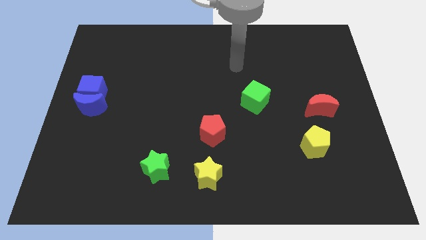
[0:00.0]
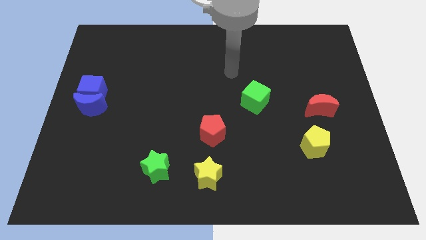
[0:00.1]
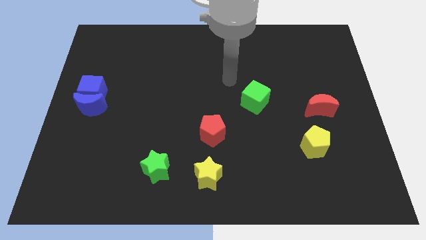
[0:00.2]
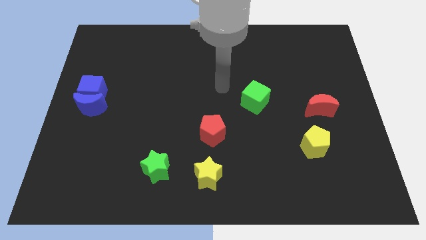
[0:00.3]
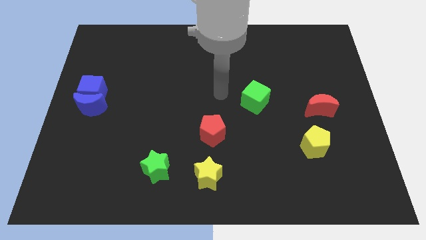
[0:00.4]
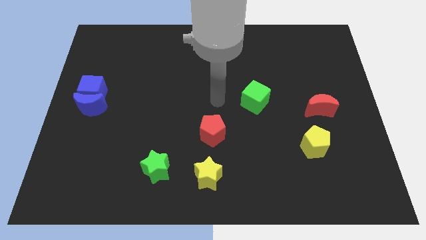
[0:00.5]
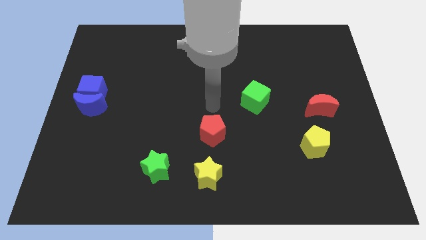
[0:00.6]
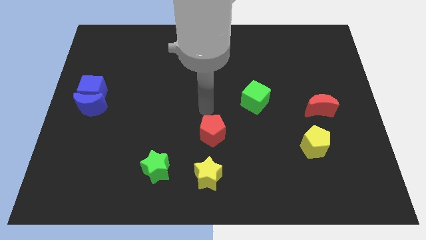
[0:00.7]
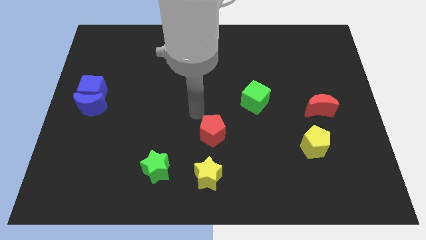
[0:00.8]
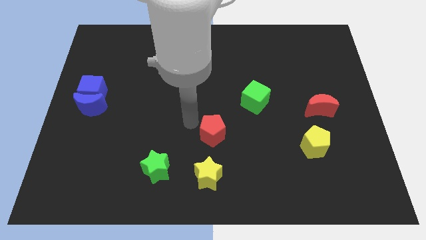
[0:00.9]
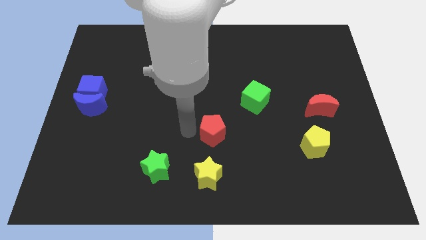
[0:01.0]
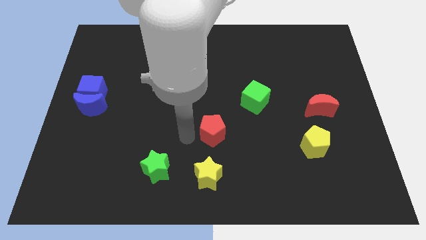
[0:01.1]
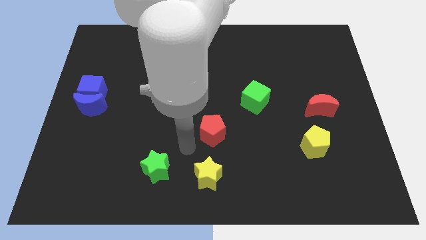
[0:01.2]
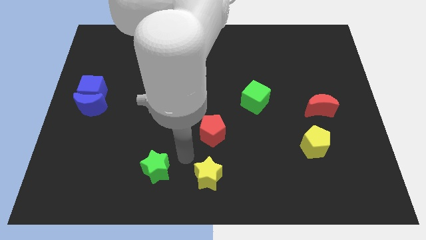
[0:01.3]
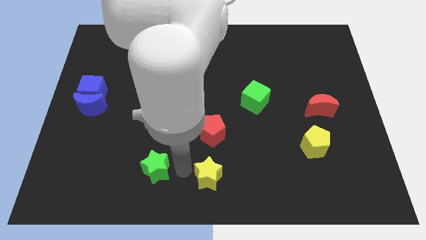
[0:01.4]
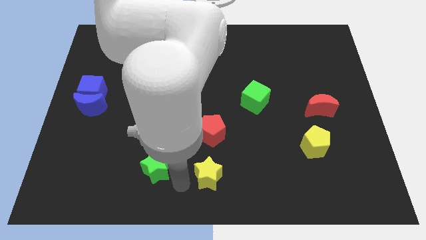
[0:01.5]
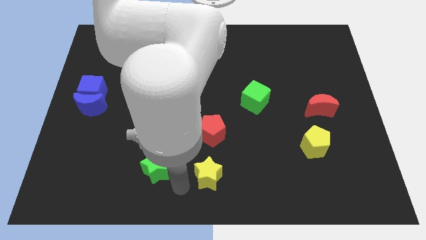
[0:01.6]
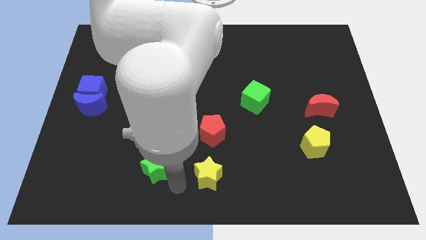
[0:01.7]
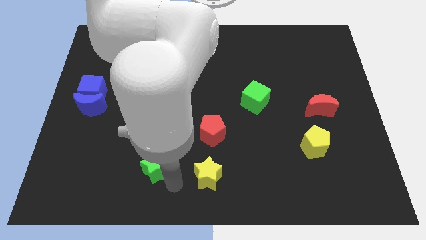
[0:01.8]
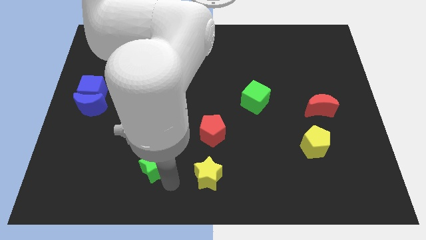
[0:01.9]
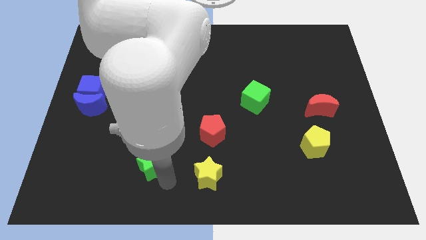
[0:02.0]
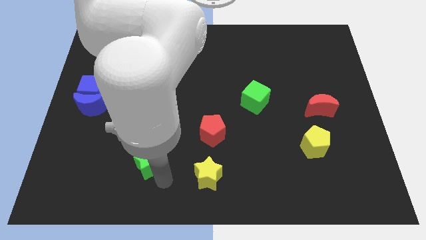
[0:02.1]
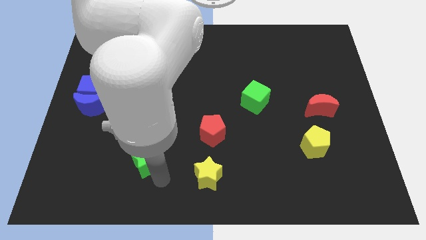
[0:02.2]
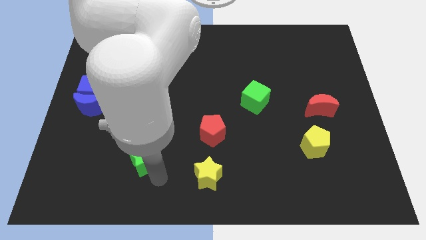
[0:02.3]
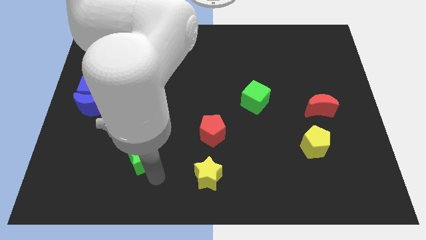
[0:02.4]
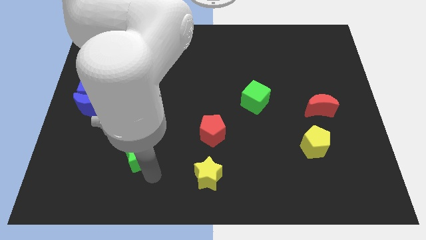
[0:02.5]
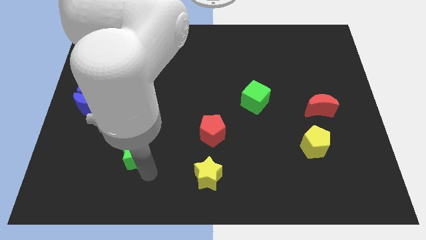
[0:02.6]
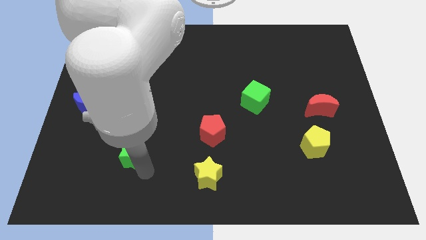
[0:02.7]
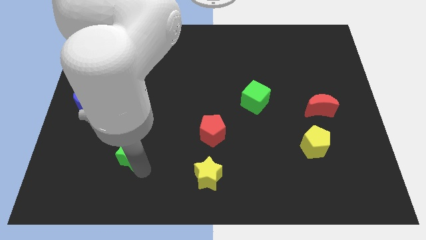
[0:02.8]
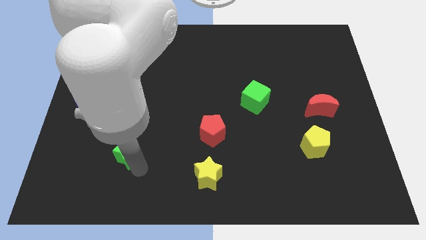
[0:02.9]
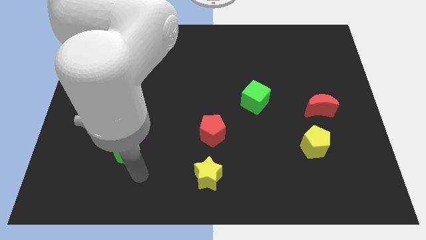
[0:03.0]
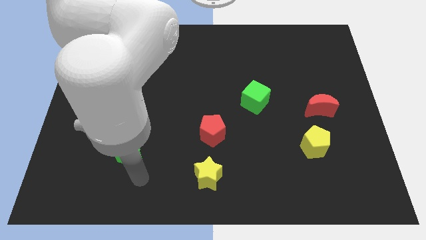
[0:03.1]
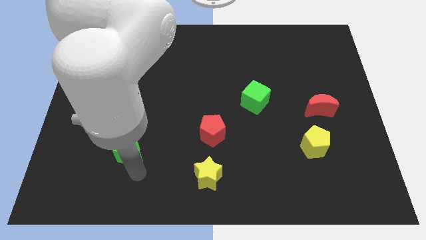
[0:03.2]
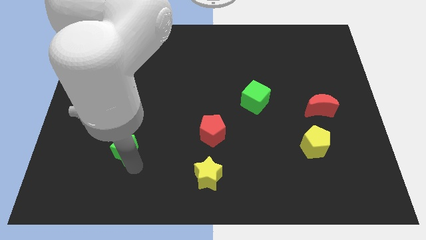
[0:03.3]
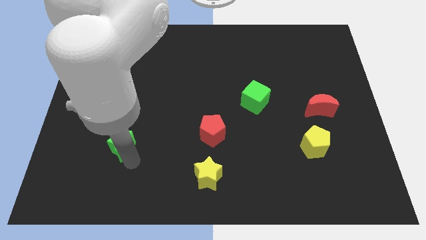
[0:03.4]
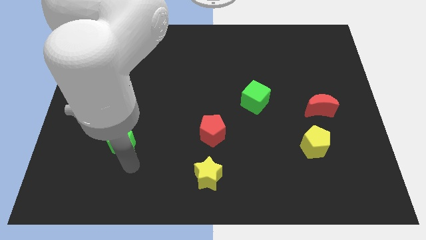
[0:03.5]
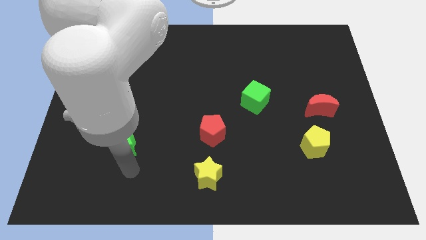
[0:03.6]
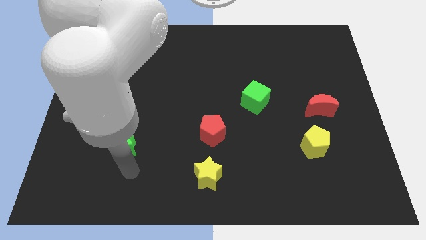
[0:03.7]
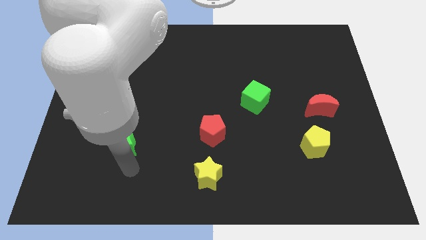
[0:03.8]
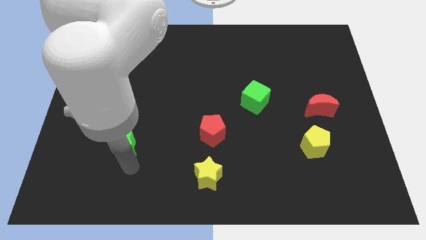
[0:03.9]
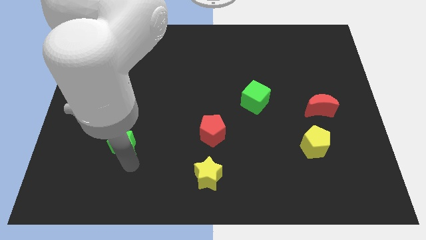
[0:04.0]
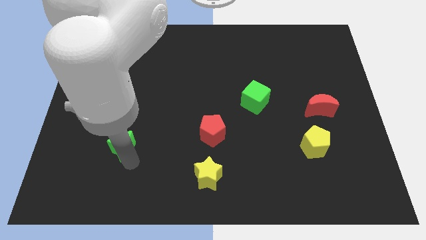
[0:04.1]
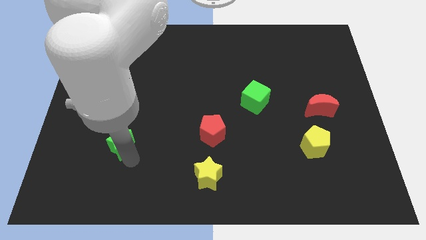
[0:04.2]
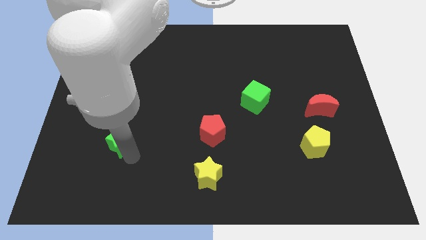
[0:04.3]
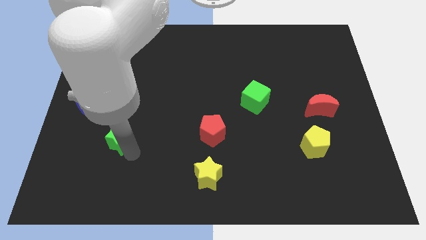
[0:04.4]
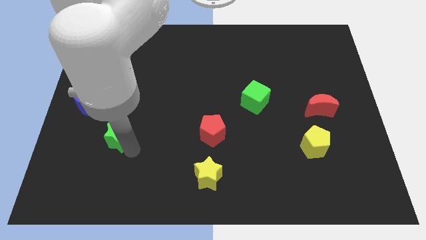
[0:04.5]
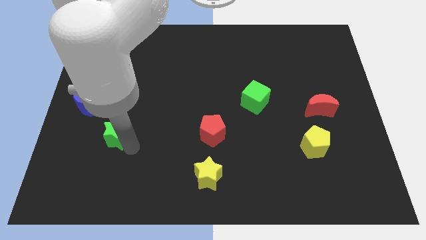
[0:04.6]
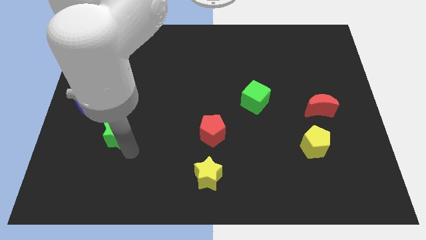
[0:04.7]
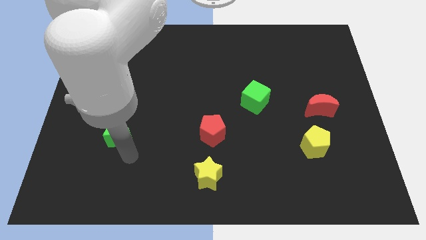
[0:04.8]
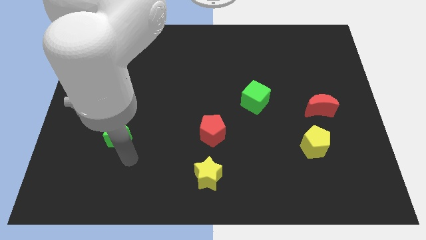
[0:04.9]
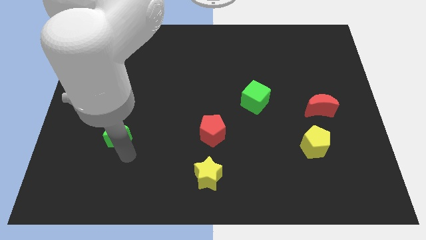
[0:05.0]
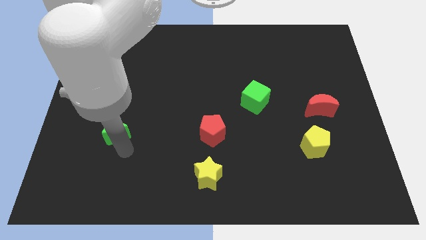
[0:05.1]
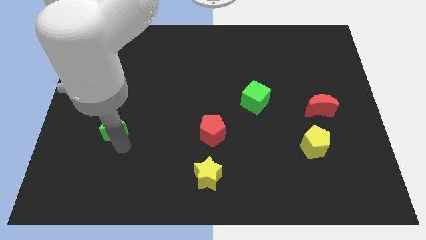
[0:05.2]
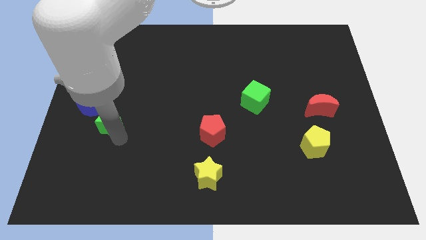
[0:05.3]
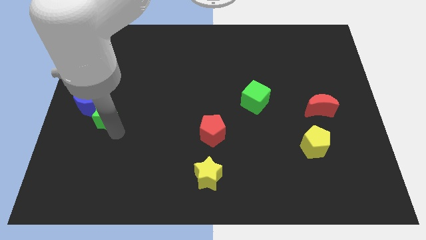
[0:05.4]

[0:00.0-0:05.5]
put the green star towards the blue moon

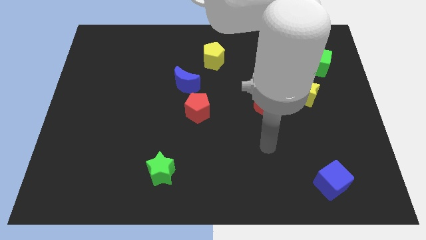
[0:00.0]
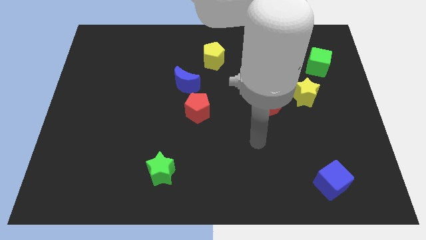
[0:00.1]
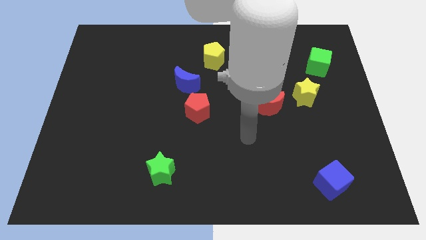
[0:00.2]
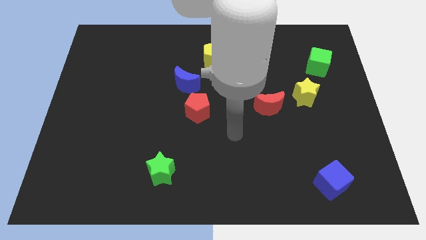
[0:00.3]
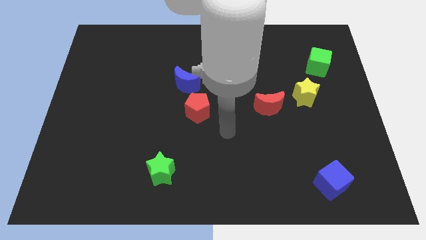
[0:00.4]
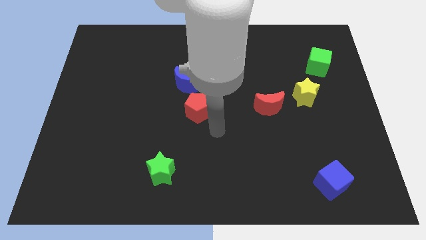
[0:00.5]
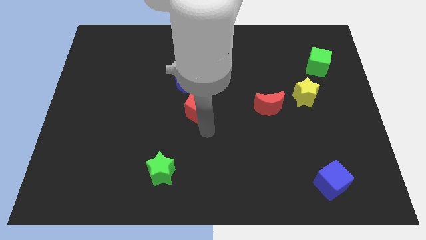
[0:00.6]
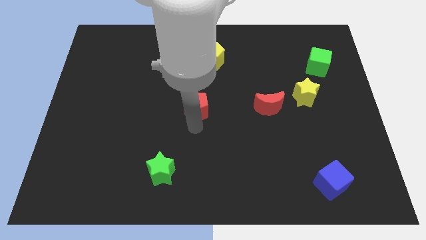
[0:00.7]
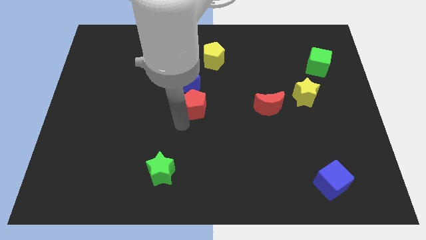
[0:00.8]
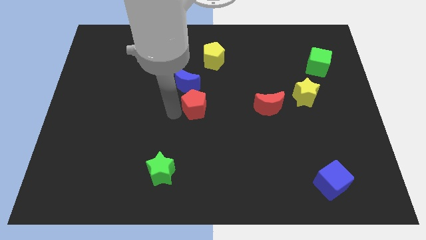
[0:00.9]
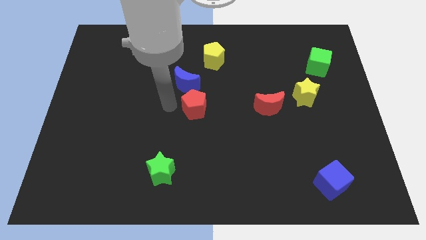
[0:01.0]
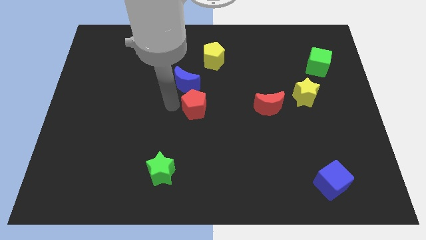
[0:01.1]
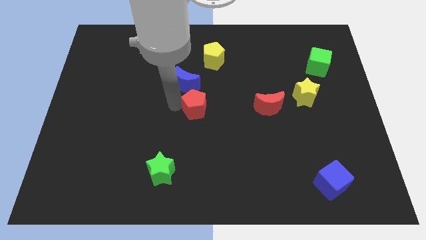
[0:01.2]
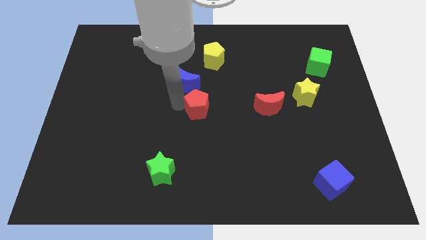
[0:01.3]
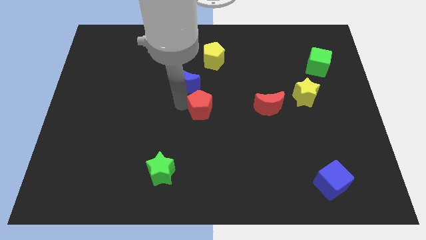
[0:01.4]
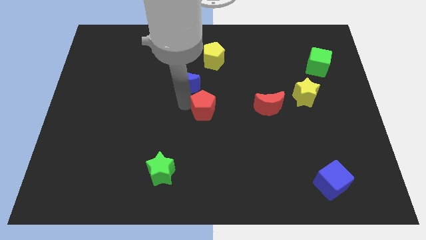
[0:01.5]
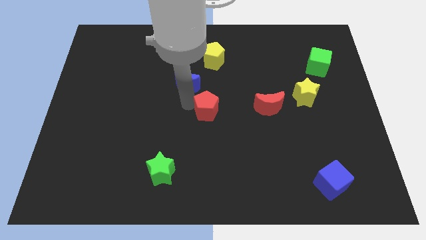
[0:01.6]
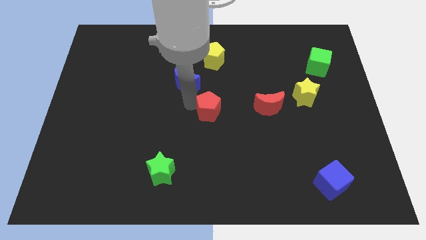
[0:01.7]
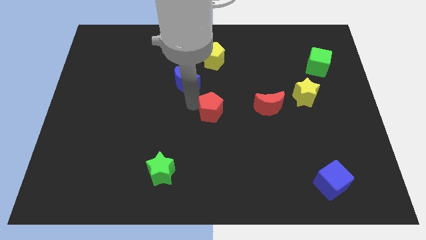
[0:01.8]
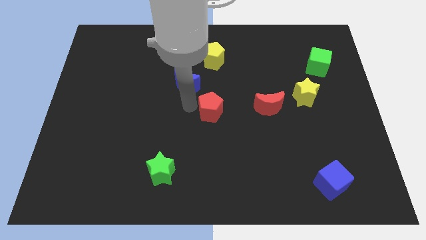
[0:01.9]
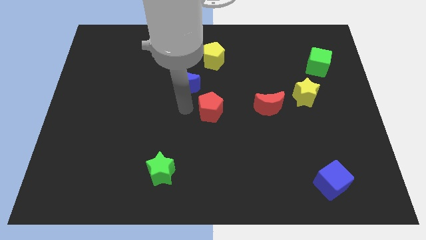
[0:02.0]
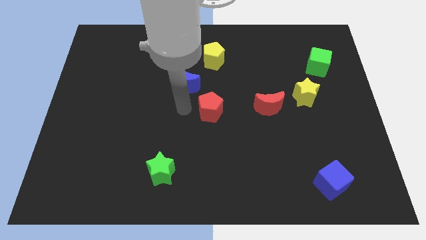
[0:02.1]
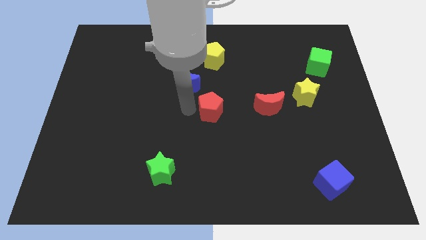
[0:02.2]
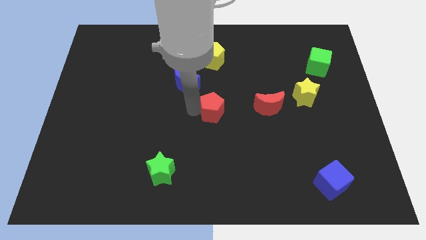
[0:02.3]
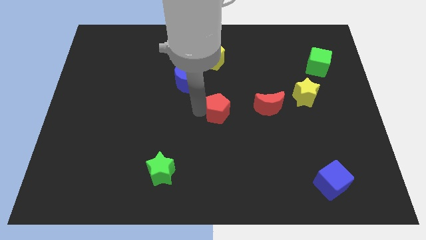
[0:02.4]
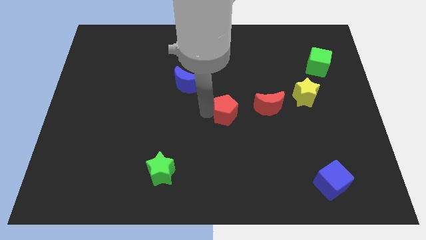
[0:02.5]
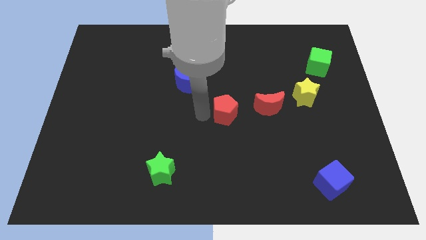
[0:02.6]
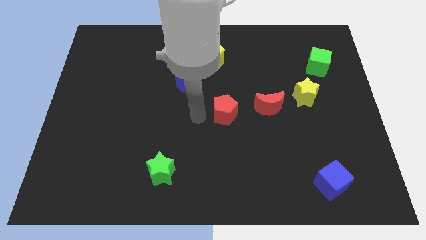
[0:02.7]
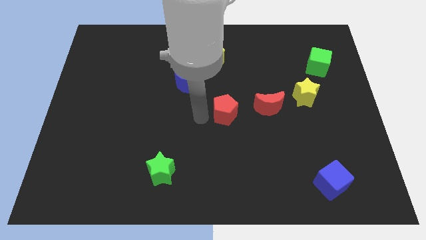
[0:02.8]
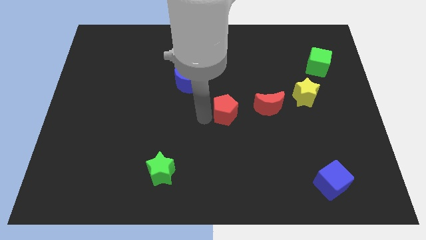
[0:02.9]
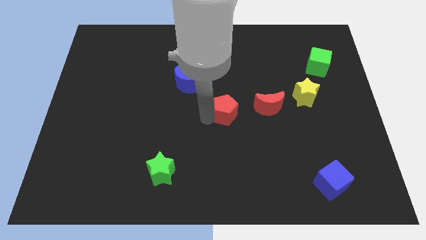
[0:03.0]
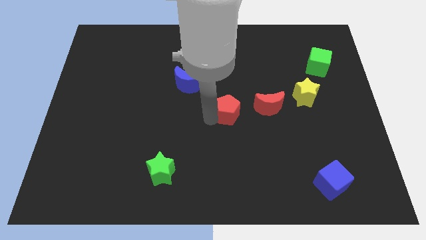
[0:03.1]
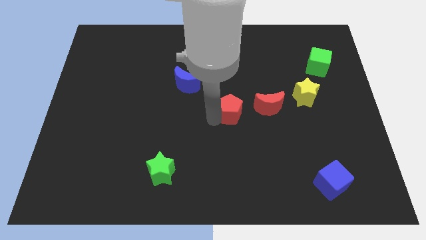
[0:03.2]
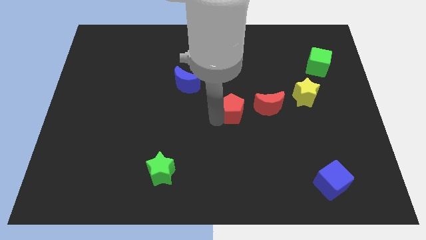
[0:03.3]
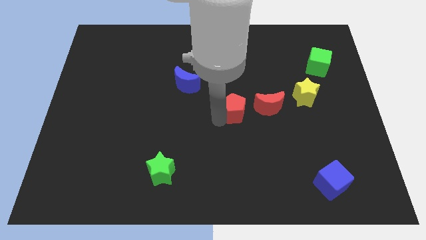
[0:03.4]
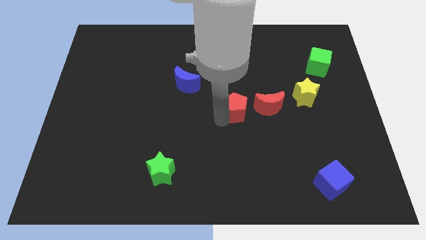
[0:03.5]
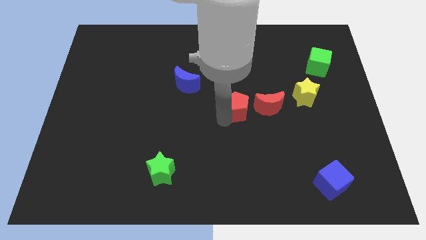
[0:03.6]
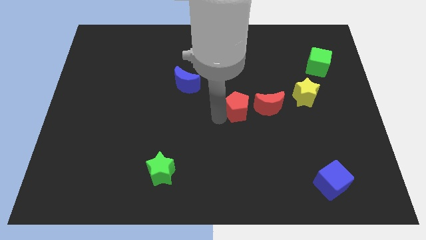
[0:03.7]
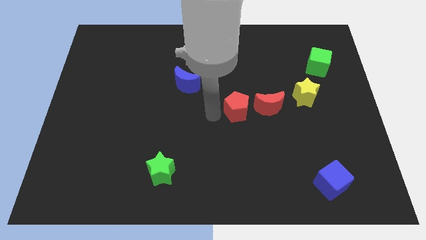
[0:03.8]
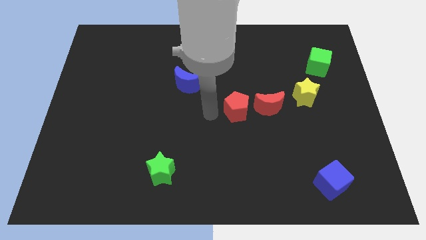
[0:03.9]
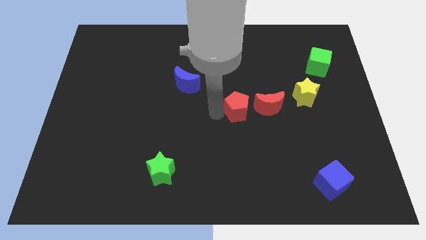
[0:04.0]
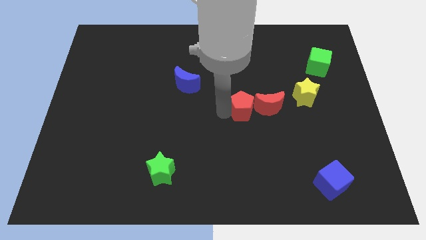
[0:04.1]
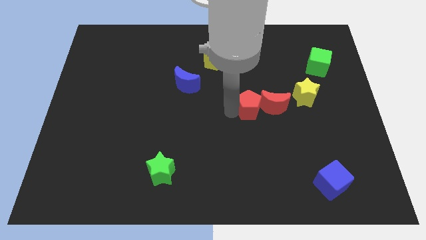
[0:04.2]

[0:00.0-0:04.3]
put the red pentagon to the red moon
